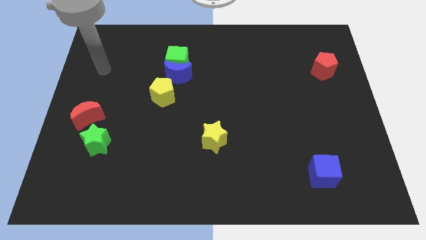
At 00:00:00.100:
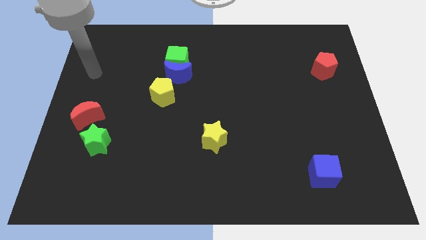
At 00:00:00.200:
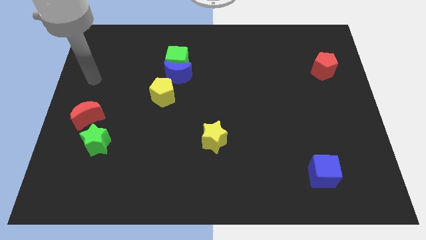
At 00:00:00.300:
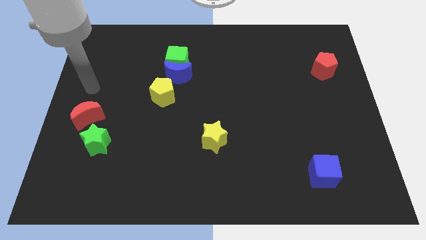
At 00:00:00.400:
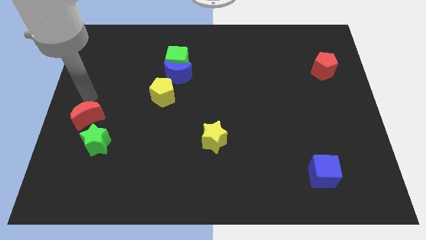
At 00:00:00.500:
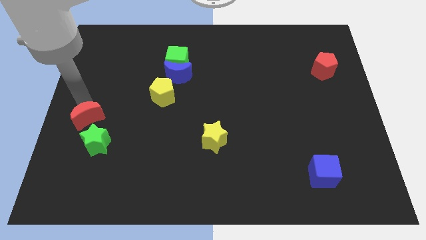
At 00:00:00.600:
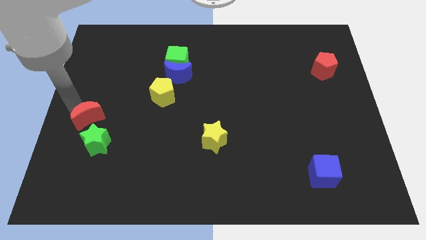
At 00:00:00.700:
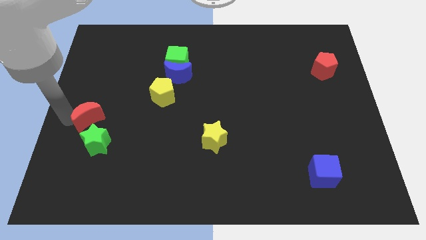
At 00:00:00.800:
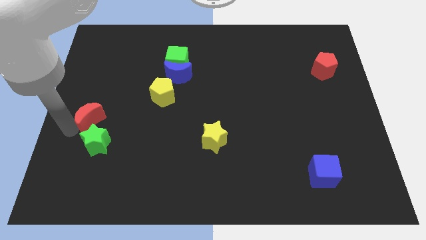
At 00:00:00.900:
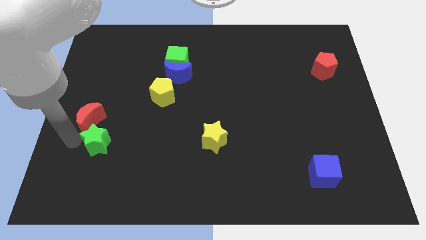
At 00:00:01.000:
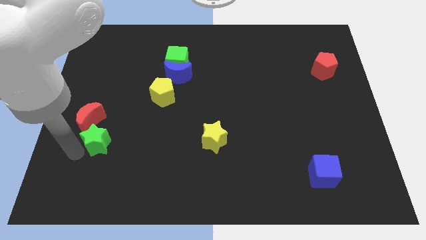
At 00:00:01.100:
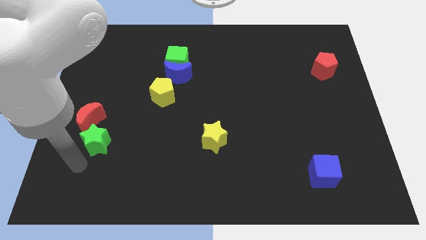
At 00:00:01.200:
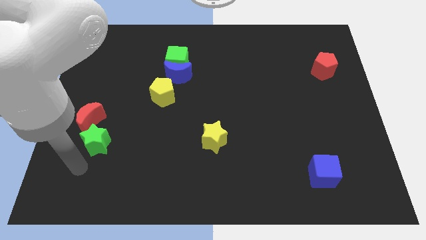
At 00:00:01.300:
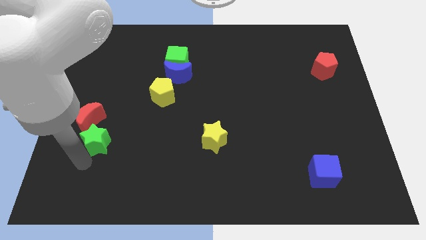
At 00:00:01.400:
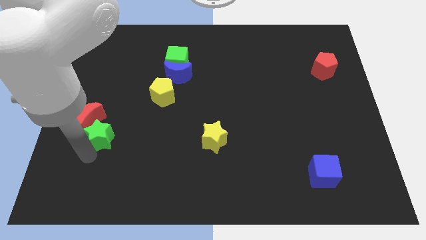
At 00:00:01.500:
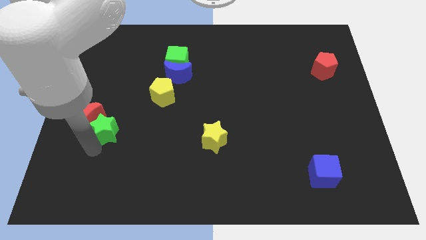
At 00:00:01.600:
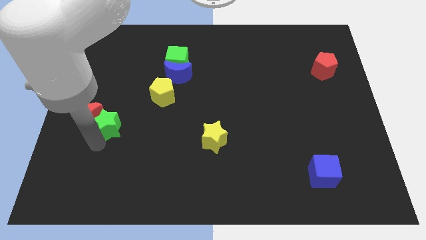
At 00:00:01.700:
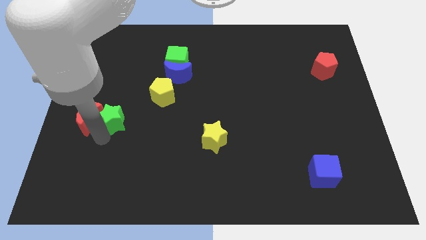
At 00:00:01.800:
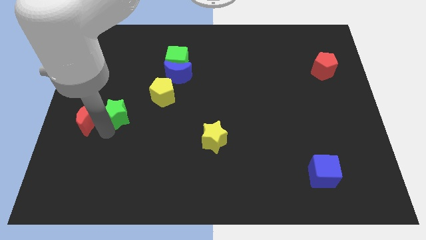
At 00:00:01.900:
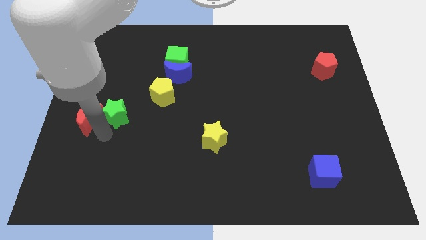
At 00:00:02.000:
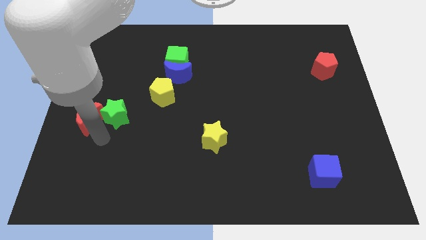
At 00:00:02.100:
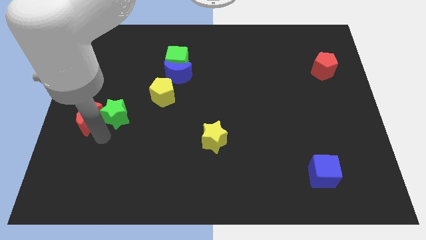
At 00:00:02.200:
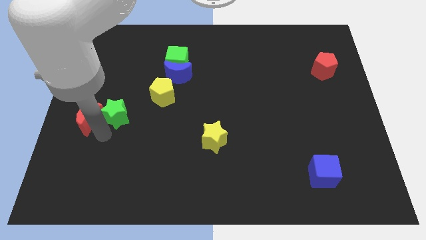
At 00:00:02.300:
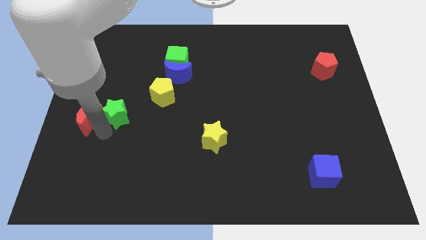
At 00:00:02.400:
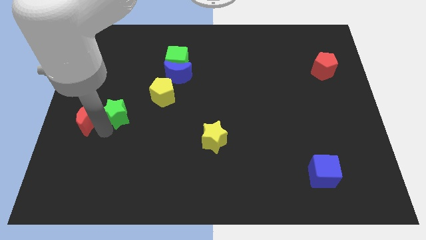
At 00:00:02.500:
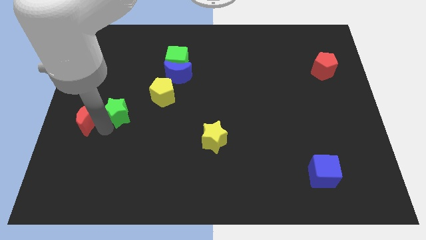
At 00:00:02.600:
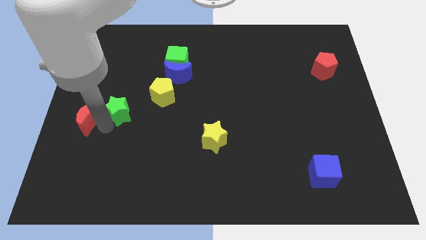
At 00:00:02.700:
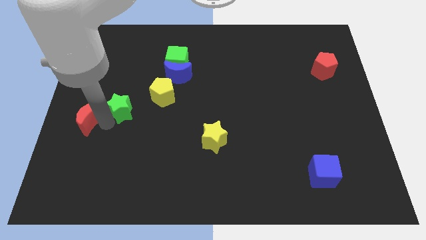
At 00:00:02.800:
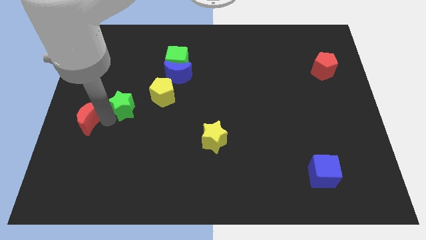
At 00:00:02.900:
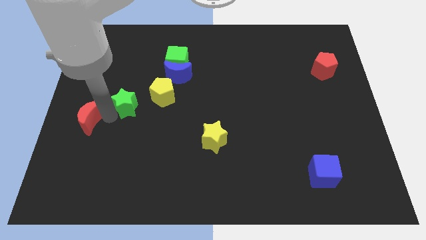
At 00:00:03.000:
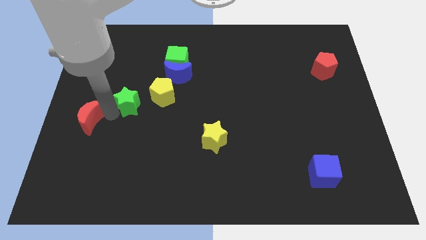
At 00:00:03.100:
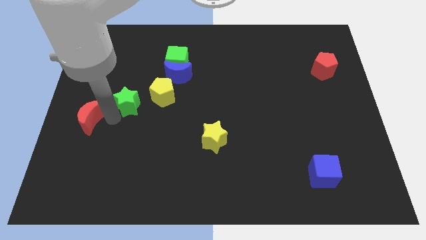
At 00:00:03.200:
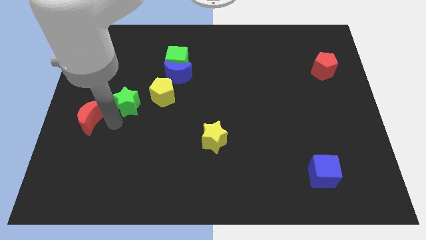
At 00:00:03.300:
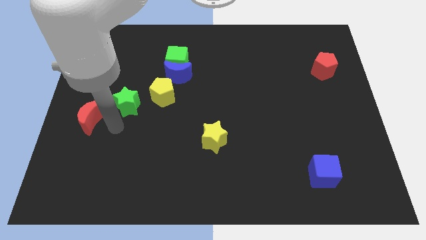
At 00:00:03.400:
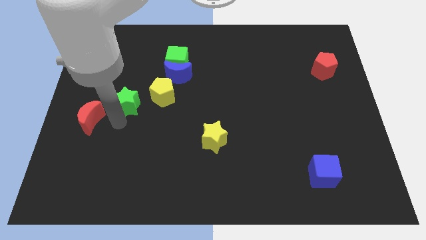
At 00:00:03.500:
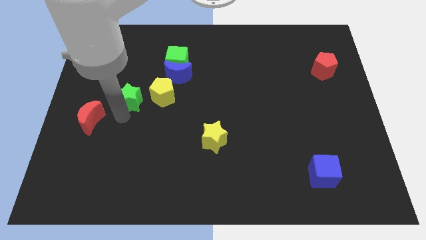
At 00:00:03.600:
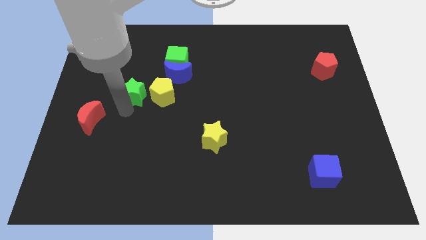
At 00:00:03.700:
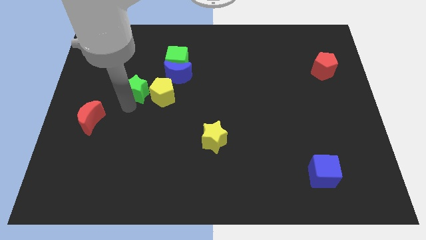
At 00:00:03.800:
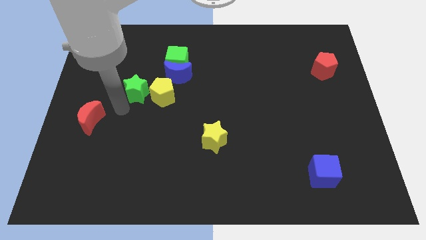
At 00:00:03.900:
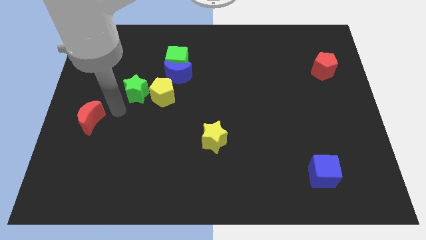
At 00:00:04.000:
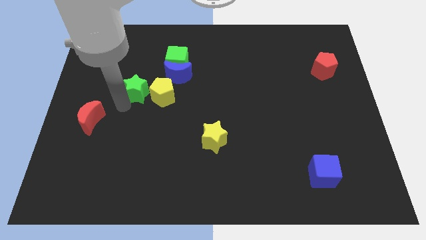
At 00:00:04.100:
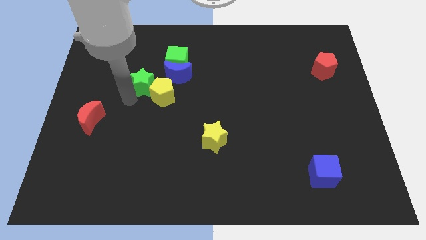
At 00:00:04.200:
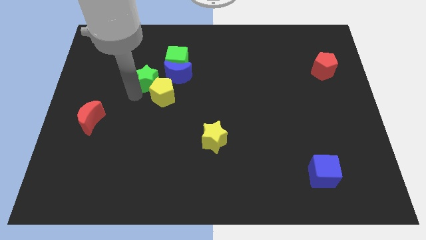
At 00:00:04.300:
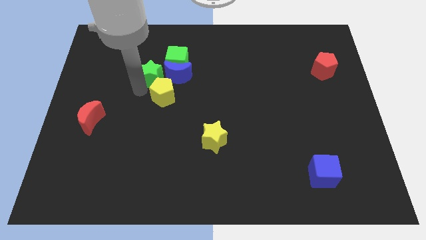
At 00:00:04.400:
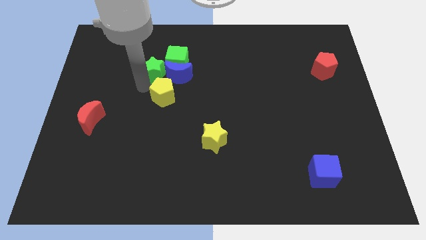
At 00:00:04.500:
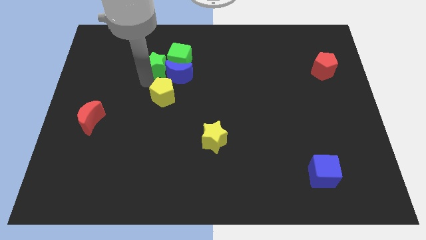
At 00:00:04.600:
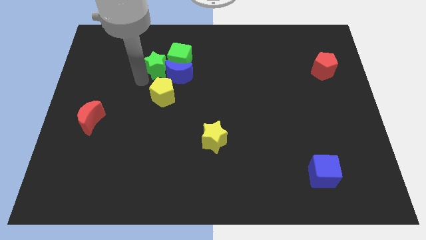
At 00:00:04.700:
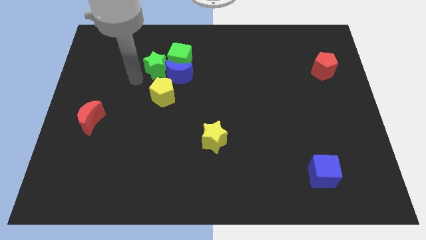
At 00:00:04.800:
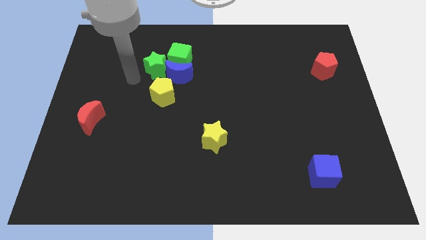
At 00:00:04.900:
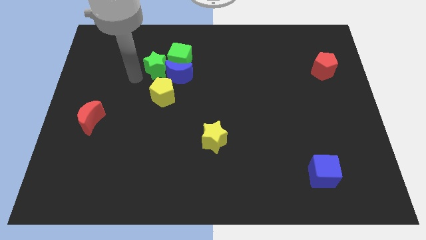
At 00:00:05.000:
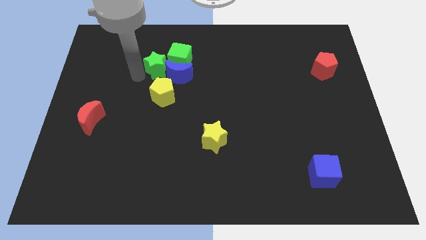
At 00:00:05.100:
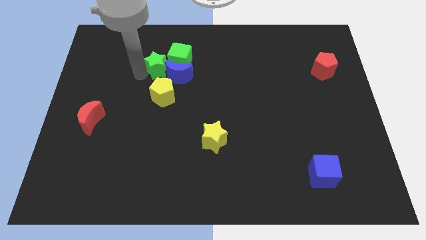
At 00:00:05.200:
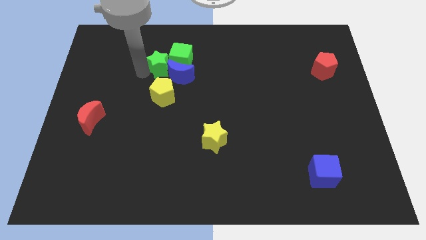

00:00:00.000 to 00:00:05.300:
move the green star to the green cube

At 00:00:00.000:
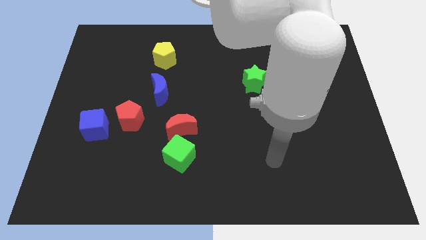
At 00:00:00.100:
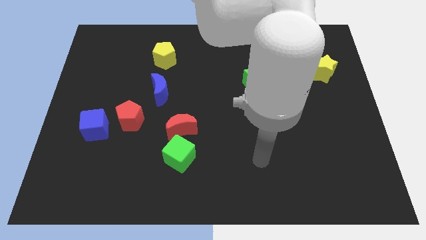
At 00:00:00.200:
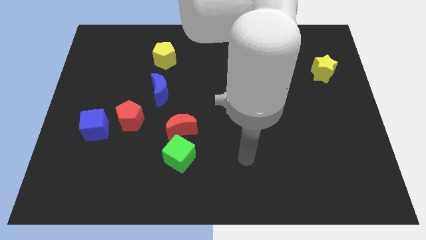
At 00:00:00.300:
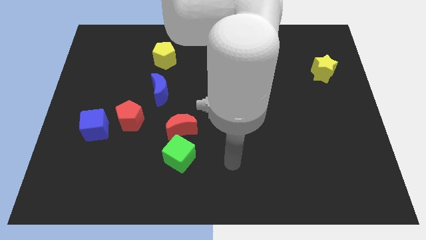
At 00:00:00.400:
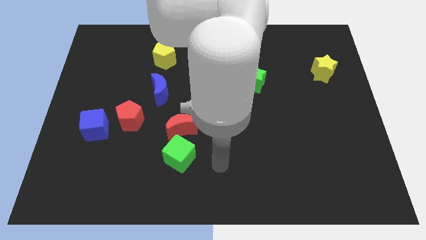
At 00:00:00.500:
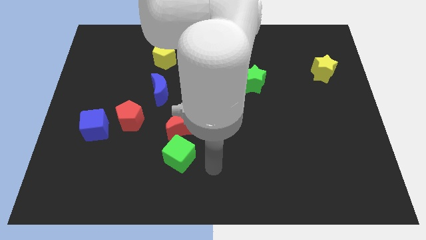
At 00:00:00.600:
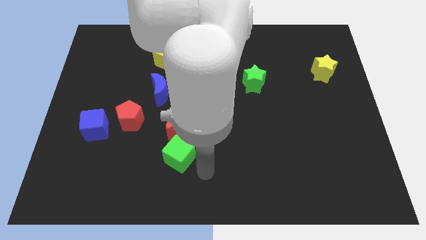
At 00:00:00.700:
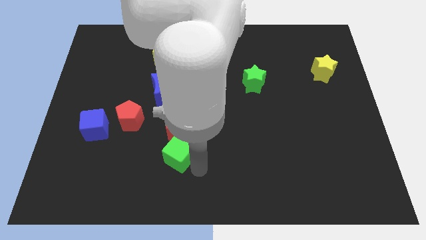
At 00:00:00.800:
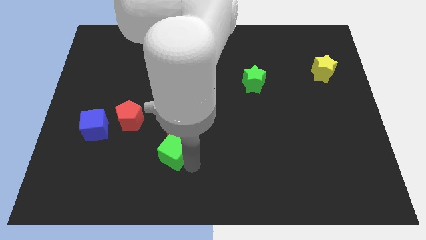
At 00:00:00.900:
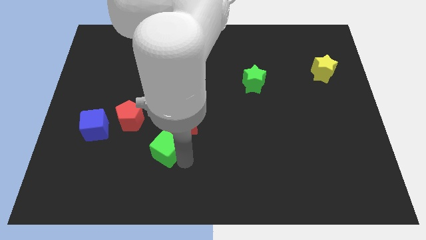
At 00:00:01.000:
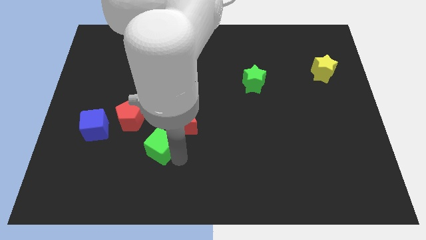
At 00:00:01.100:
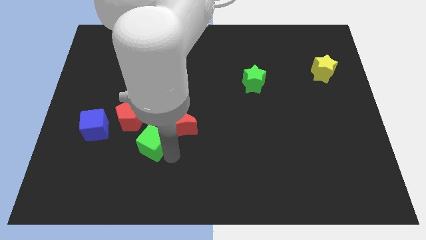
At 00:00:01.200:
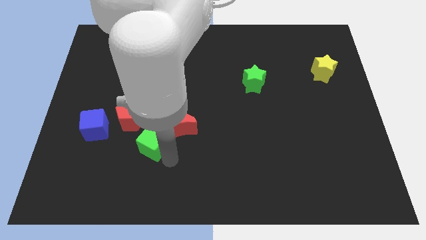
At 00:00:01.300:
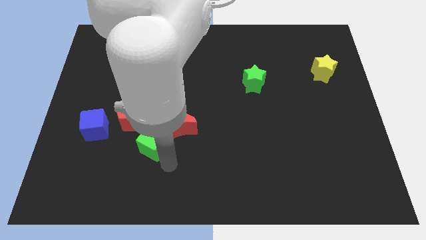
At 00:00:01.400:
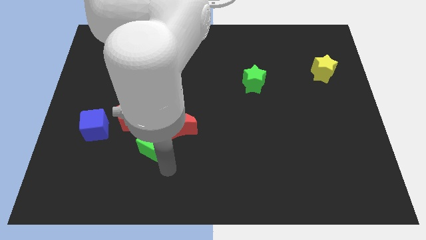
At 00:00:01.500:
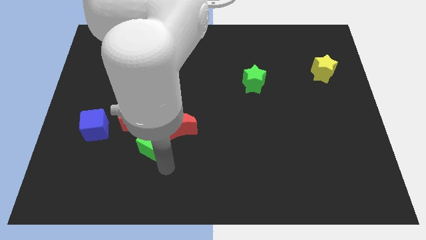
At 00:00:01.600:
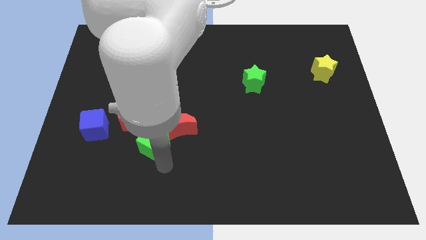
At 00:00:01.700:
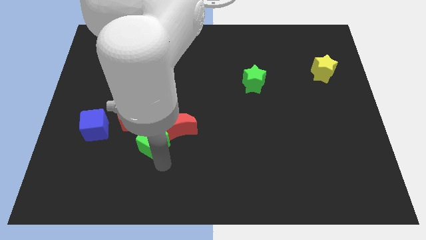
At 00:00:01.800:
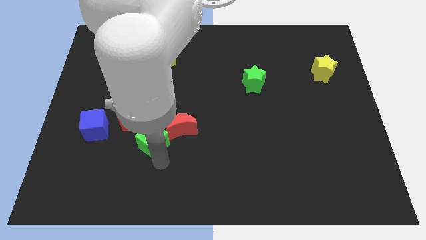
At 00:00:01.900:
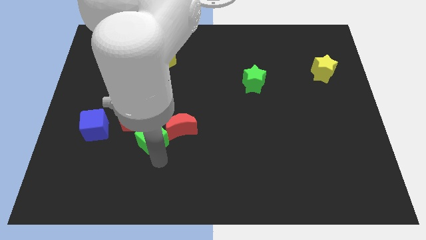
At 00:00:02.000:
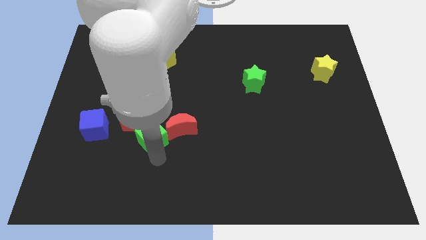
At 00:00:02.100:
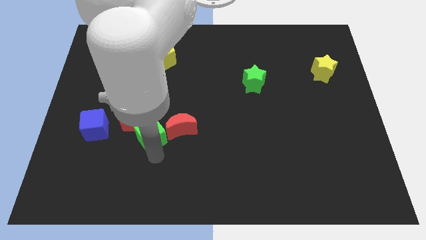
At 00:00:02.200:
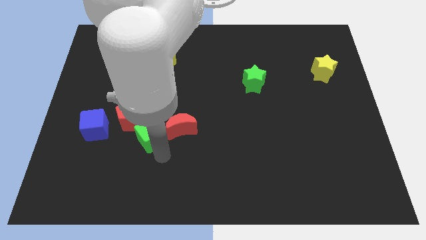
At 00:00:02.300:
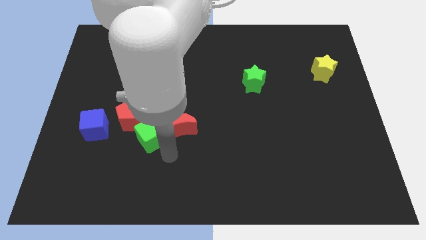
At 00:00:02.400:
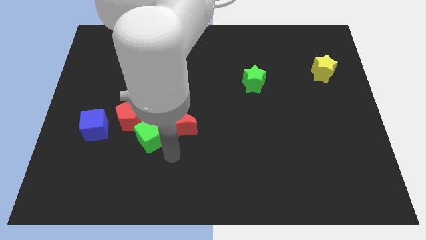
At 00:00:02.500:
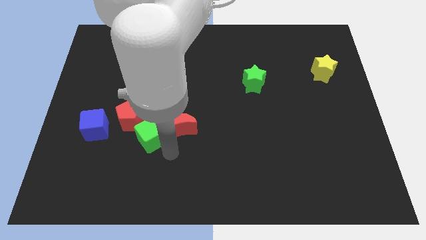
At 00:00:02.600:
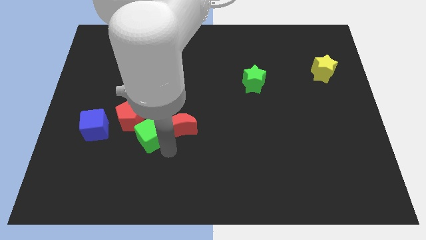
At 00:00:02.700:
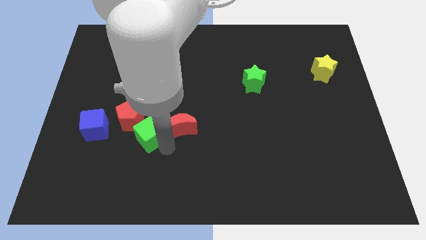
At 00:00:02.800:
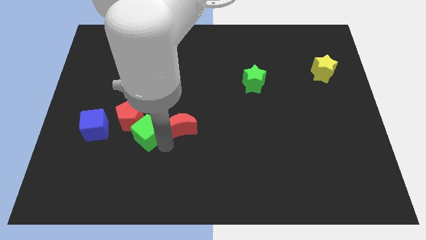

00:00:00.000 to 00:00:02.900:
move the green cube close to the red pentagon
